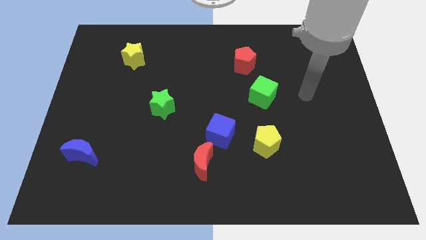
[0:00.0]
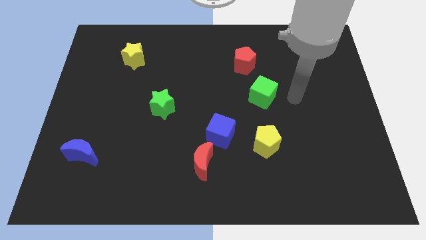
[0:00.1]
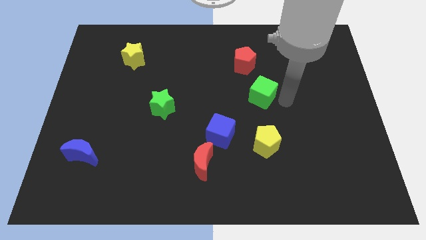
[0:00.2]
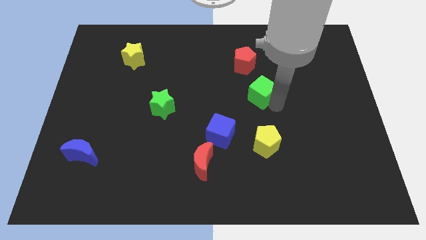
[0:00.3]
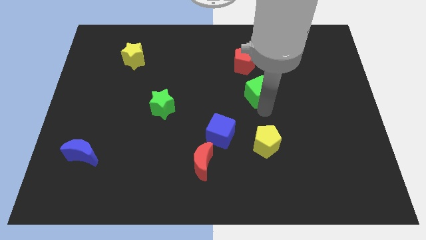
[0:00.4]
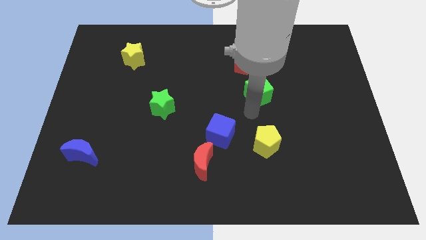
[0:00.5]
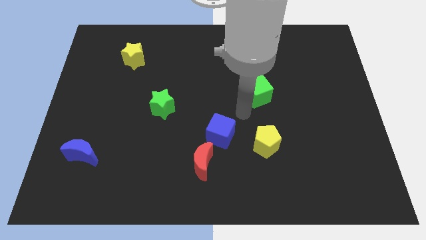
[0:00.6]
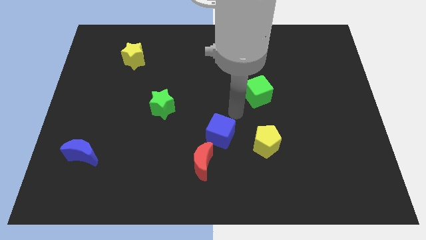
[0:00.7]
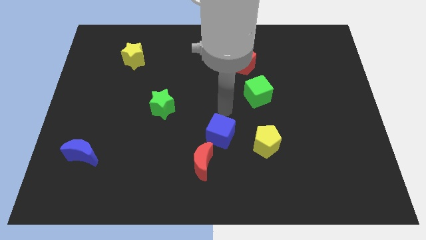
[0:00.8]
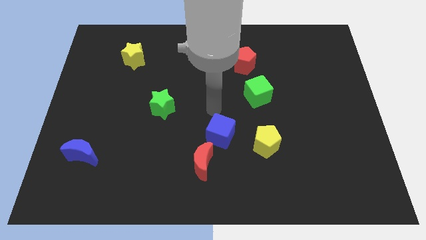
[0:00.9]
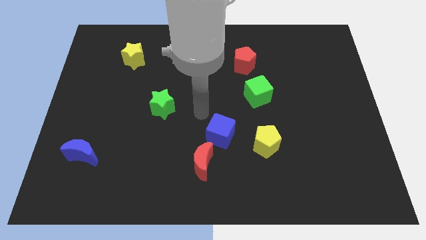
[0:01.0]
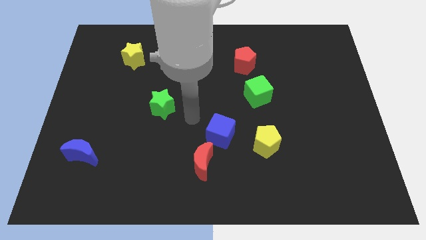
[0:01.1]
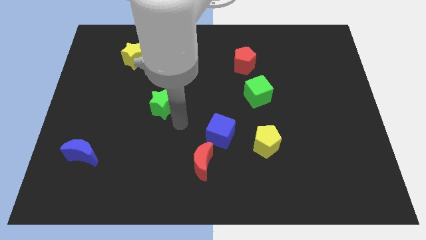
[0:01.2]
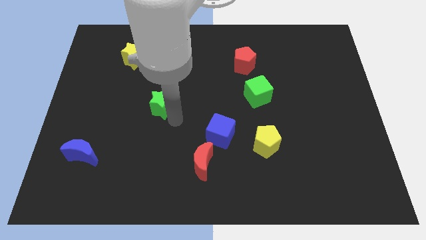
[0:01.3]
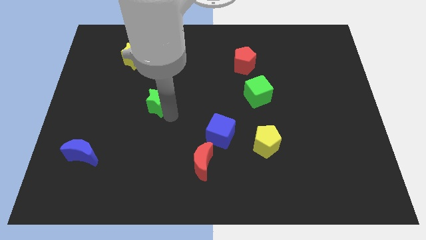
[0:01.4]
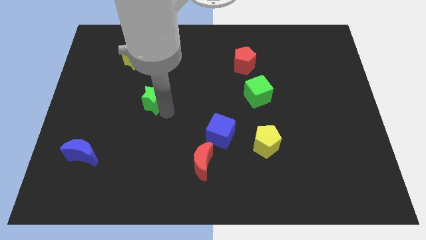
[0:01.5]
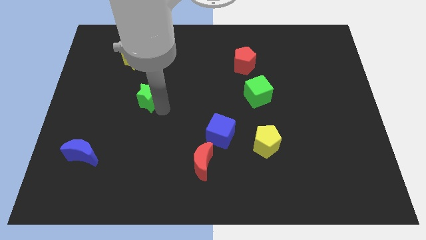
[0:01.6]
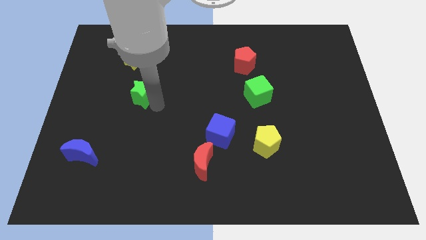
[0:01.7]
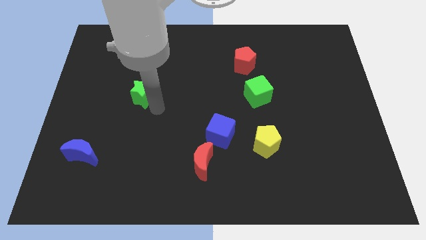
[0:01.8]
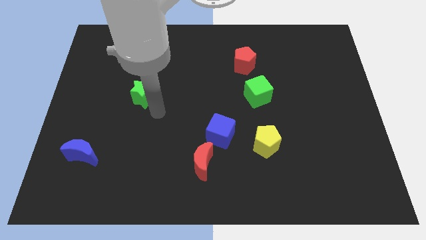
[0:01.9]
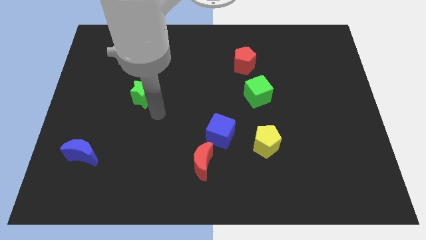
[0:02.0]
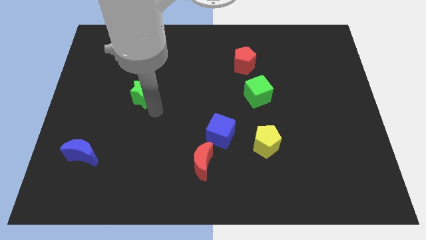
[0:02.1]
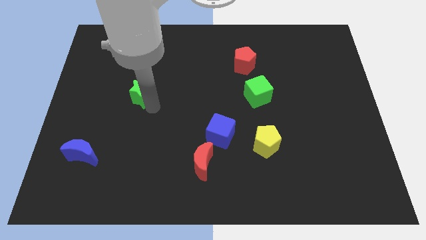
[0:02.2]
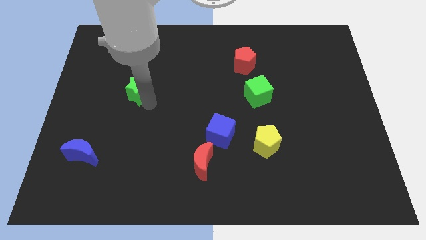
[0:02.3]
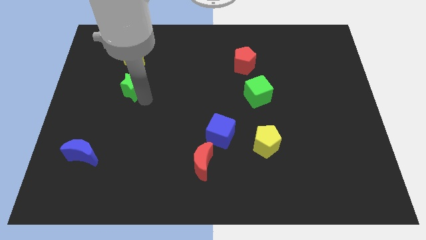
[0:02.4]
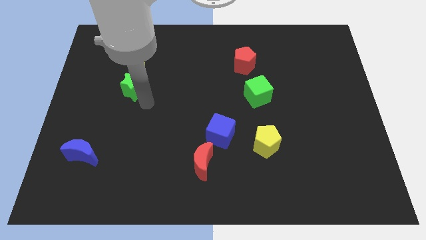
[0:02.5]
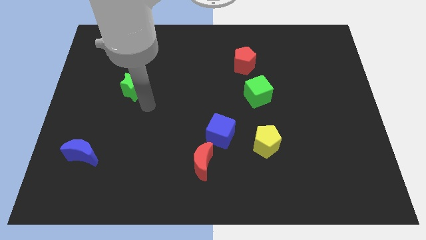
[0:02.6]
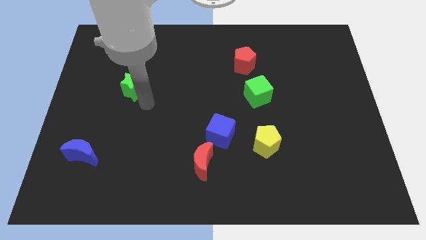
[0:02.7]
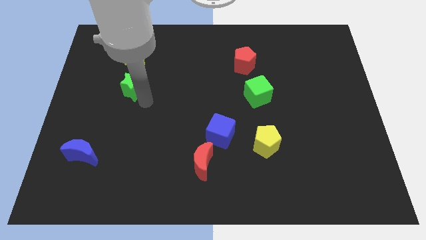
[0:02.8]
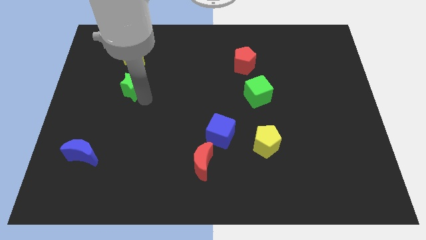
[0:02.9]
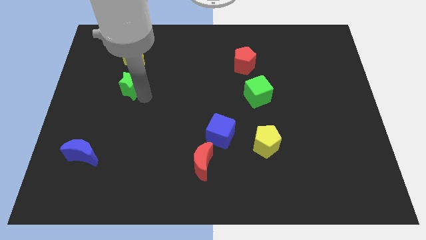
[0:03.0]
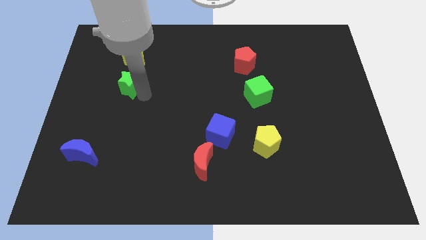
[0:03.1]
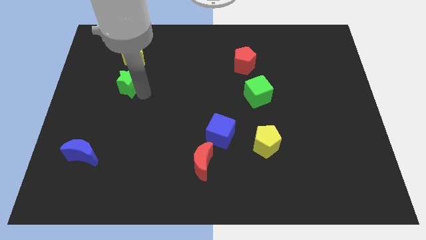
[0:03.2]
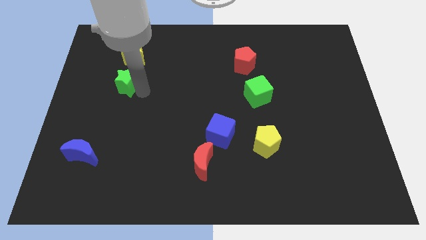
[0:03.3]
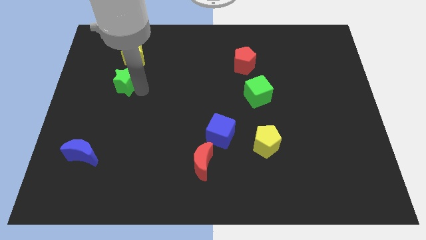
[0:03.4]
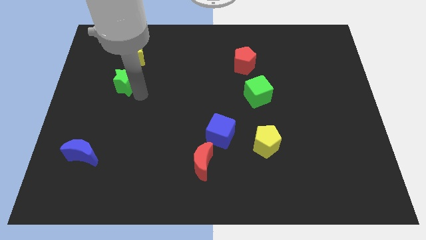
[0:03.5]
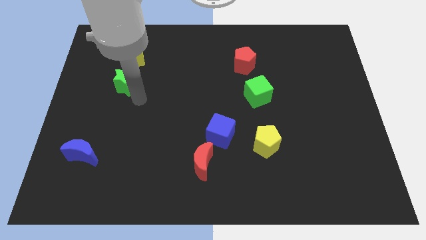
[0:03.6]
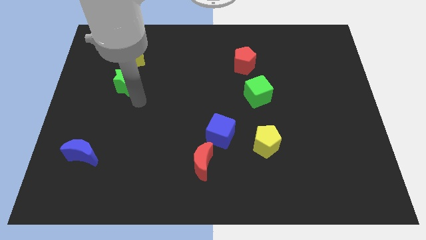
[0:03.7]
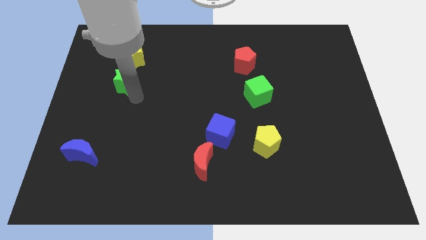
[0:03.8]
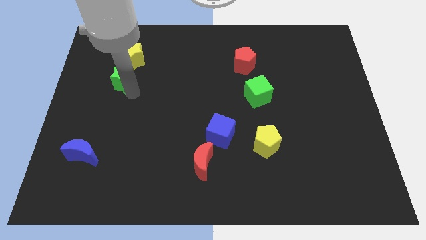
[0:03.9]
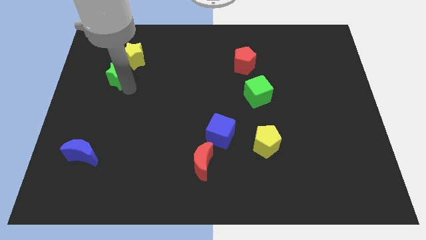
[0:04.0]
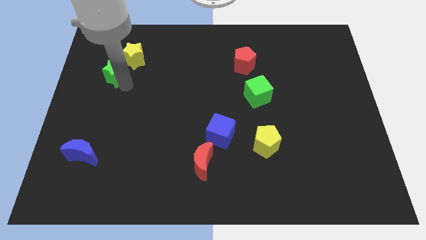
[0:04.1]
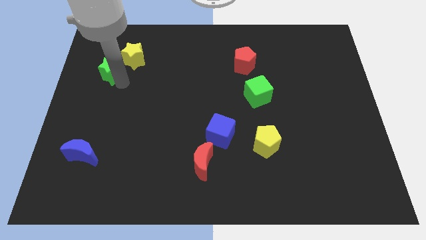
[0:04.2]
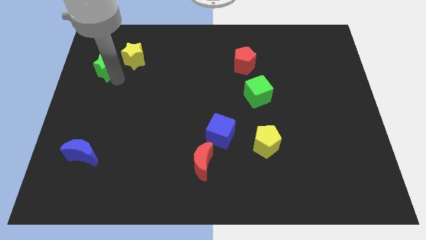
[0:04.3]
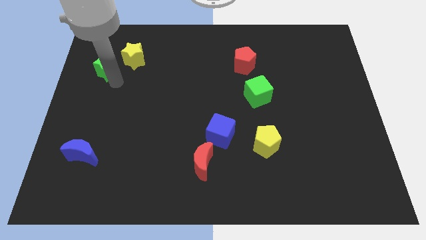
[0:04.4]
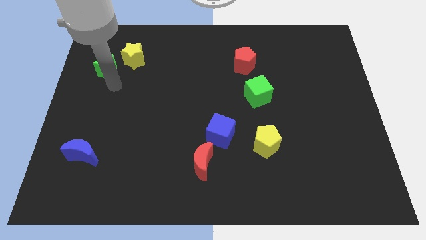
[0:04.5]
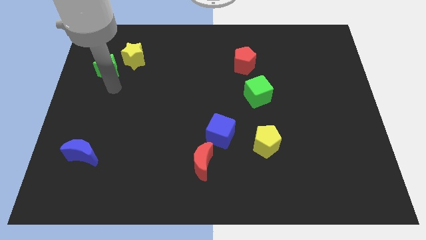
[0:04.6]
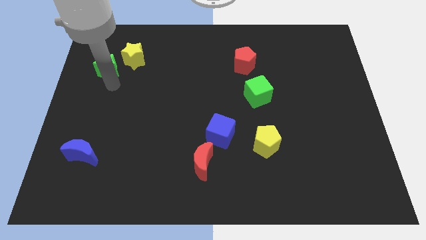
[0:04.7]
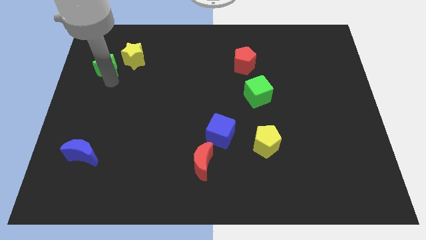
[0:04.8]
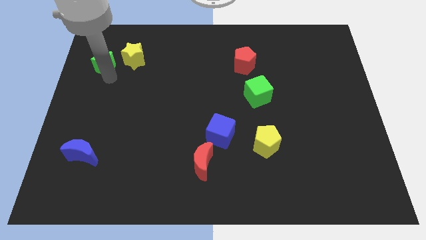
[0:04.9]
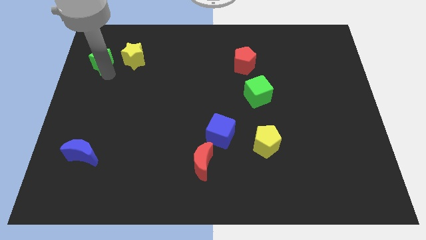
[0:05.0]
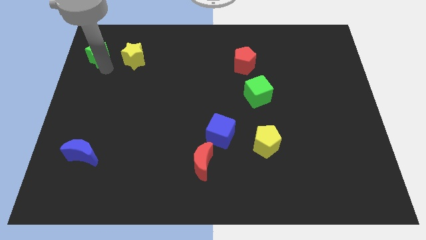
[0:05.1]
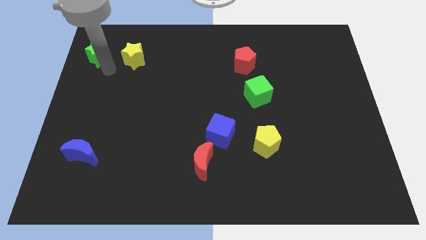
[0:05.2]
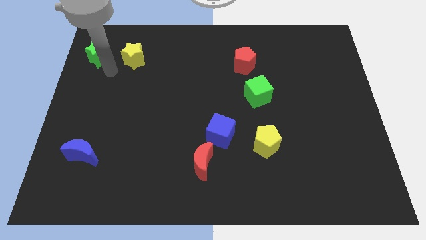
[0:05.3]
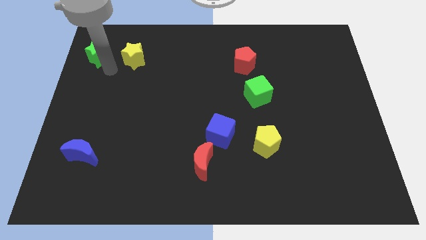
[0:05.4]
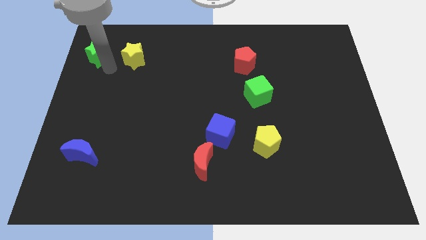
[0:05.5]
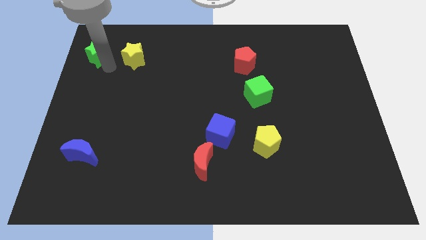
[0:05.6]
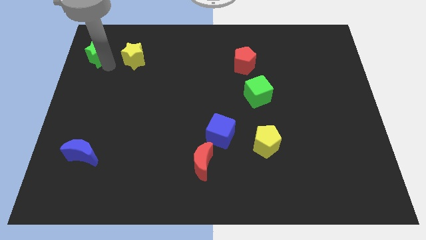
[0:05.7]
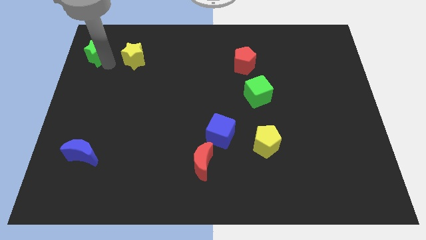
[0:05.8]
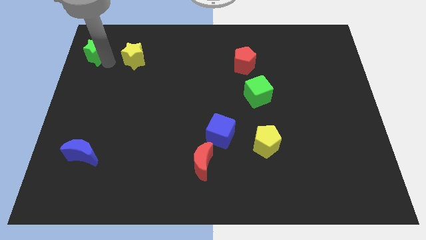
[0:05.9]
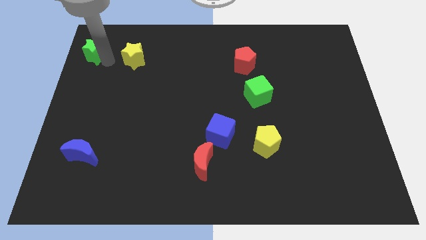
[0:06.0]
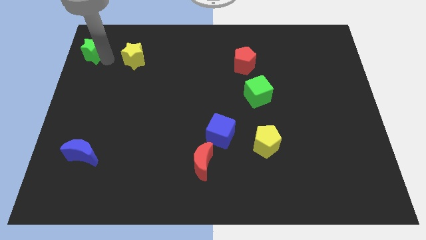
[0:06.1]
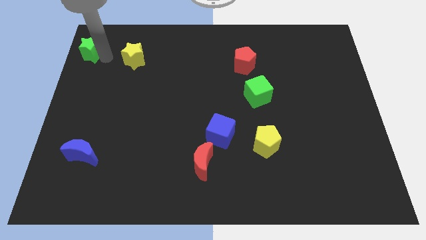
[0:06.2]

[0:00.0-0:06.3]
put the green star to the upper left corner

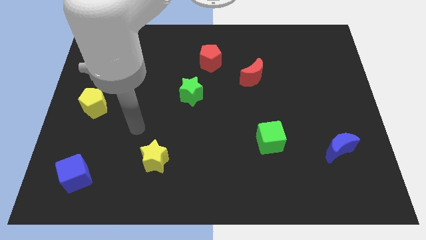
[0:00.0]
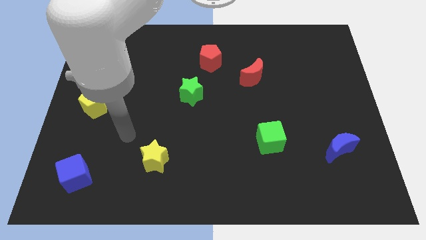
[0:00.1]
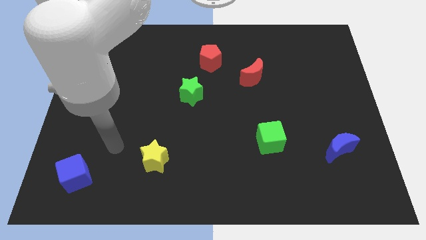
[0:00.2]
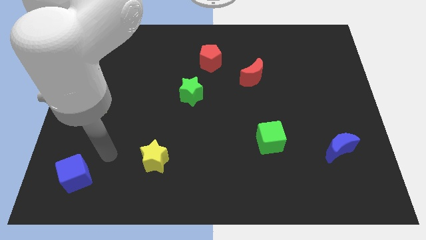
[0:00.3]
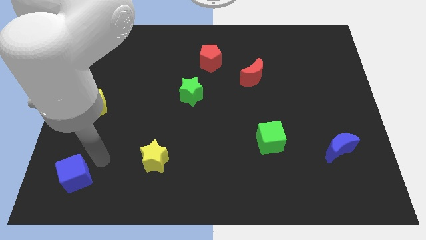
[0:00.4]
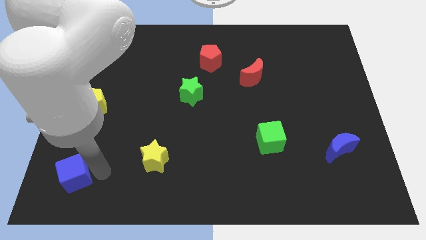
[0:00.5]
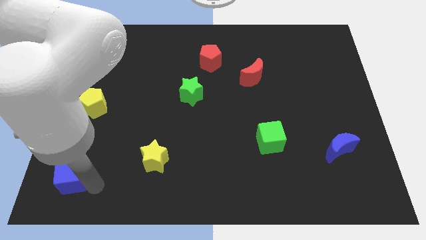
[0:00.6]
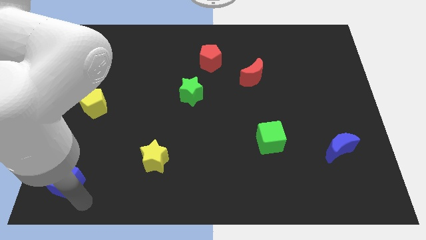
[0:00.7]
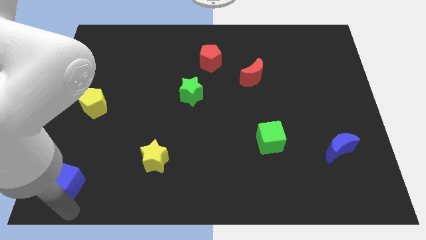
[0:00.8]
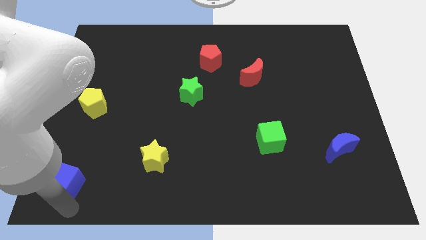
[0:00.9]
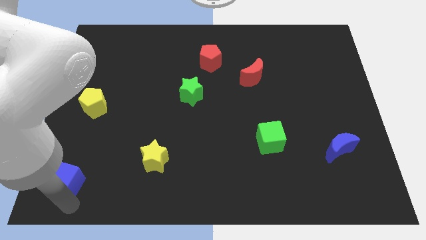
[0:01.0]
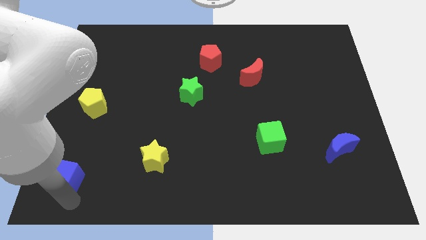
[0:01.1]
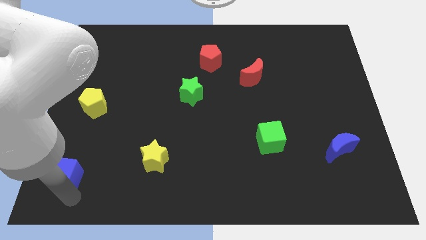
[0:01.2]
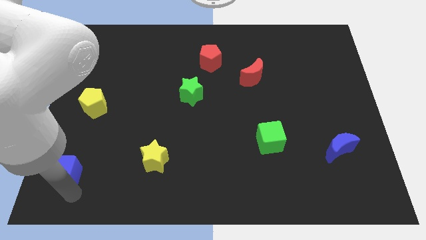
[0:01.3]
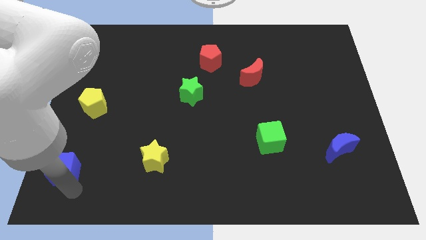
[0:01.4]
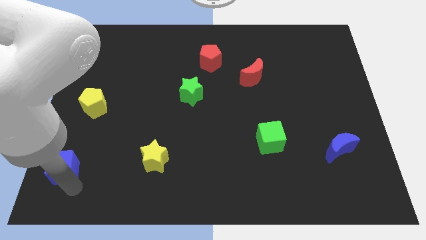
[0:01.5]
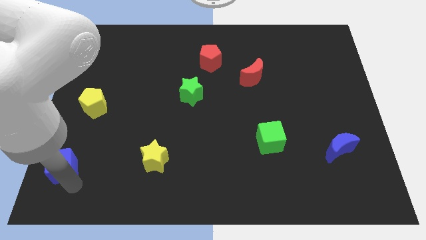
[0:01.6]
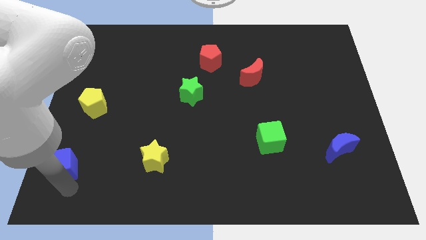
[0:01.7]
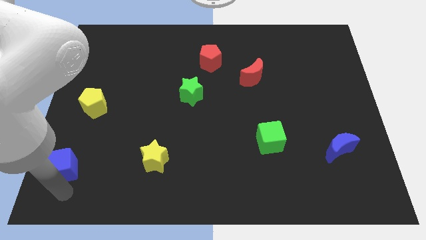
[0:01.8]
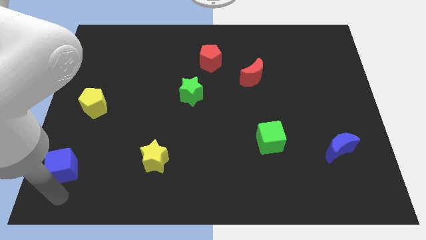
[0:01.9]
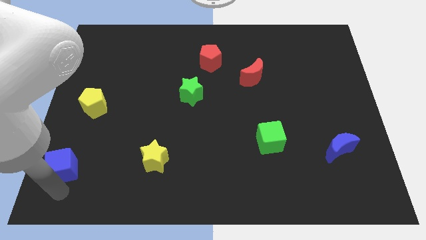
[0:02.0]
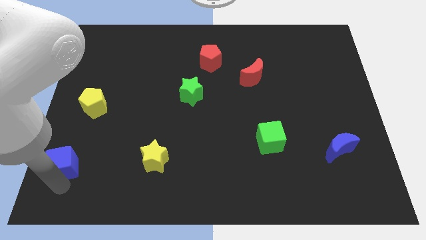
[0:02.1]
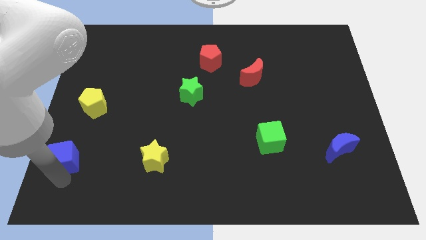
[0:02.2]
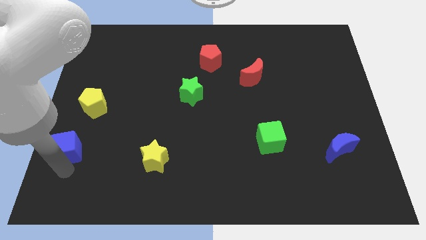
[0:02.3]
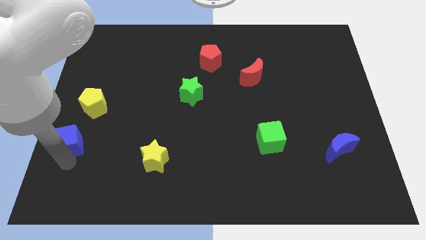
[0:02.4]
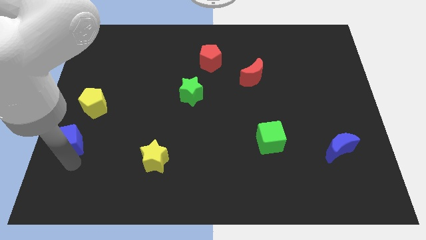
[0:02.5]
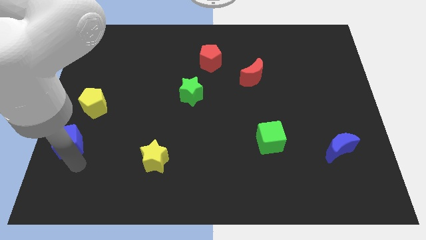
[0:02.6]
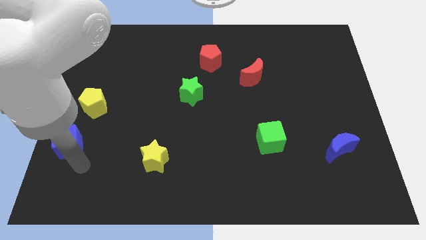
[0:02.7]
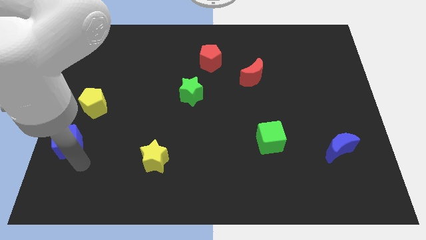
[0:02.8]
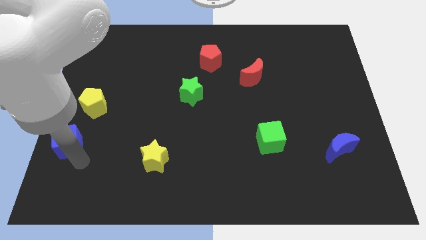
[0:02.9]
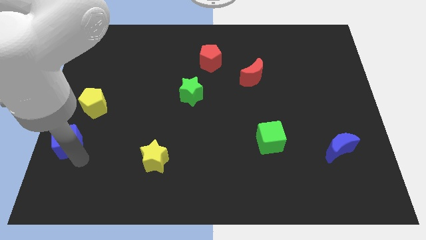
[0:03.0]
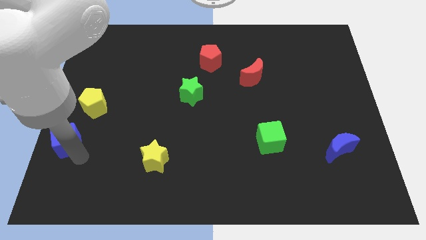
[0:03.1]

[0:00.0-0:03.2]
move the blue cube to the center left
